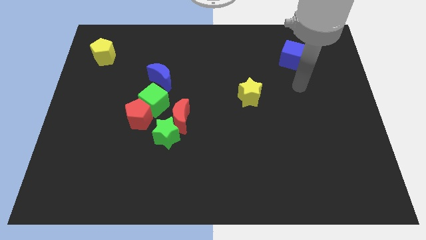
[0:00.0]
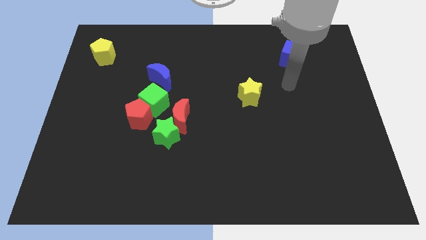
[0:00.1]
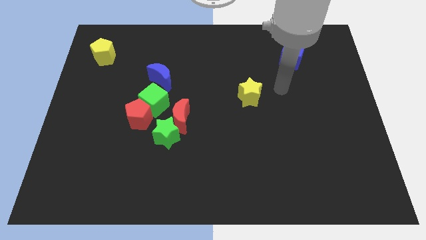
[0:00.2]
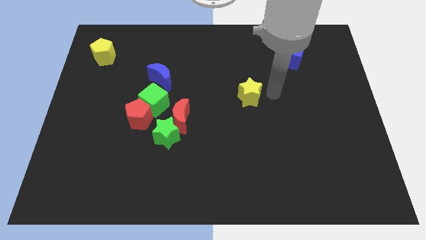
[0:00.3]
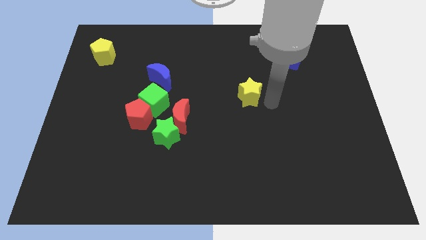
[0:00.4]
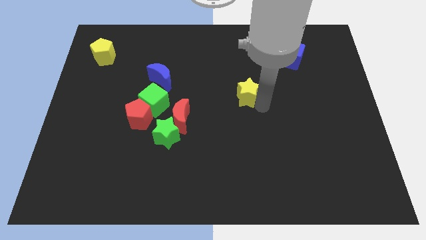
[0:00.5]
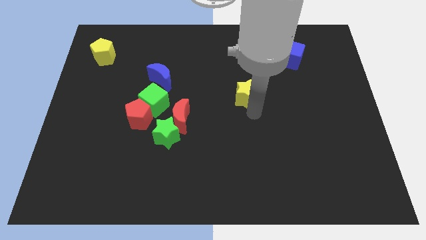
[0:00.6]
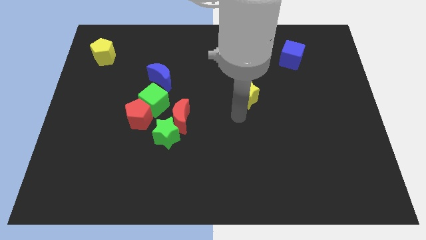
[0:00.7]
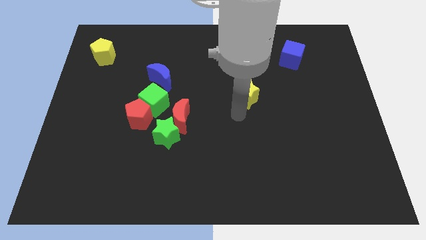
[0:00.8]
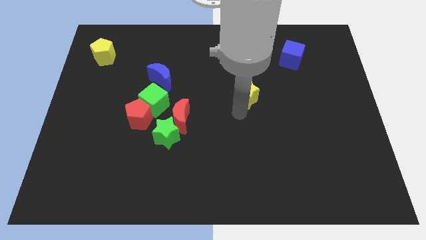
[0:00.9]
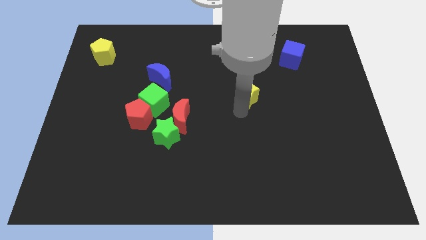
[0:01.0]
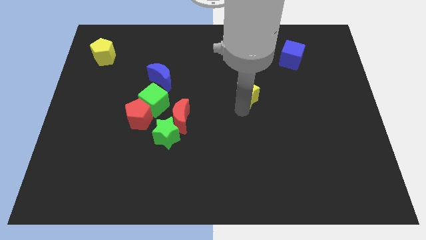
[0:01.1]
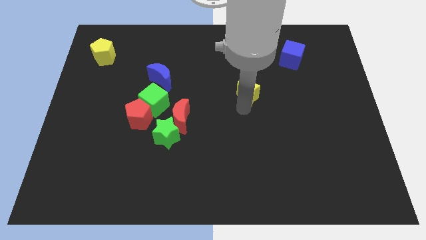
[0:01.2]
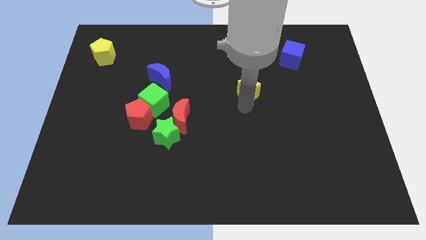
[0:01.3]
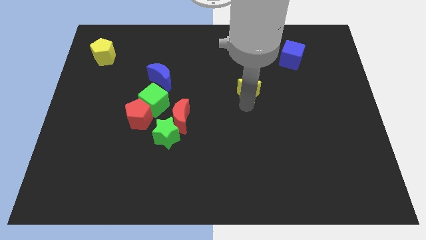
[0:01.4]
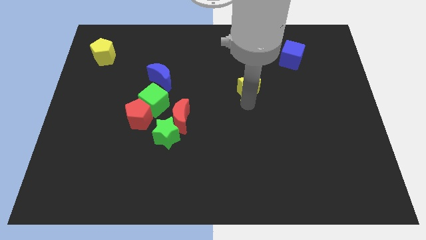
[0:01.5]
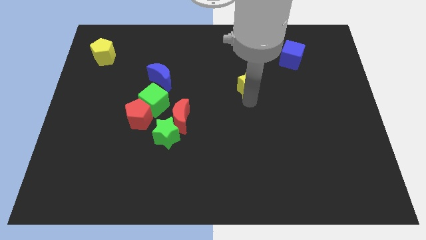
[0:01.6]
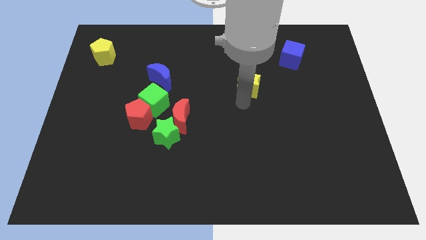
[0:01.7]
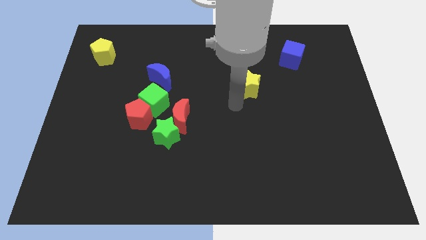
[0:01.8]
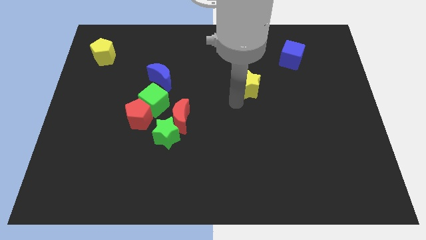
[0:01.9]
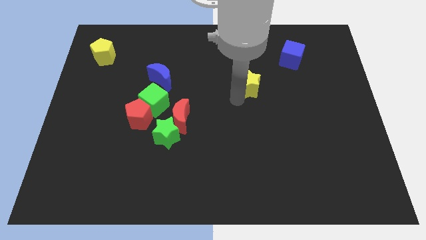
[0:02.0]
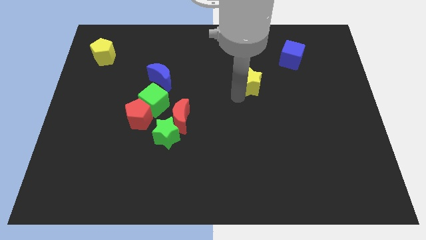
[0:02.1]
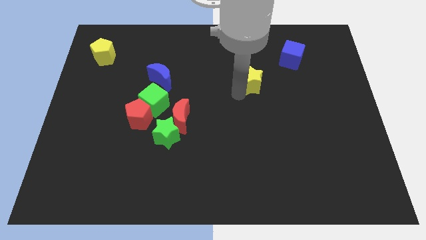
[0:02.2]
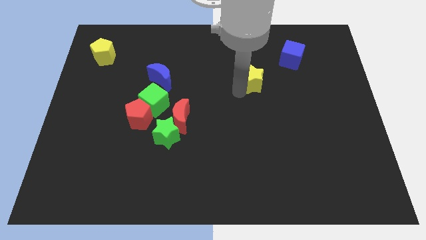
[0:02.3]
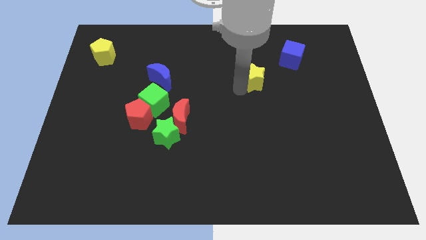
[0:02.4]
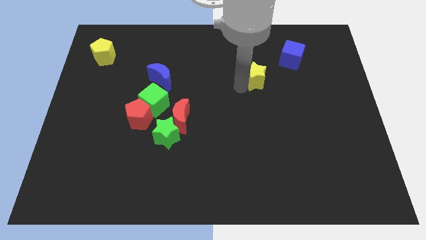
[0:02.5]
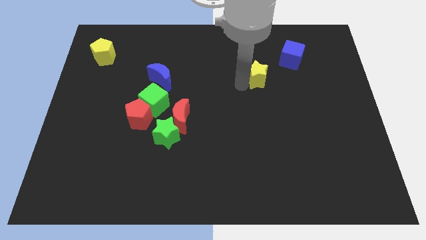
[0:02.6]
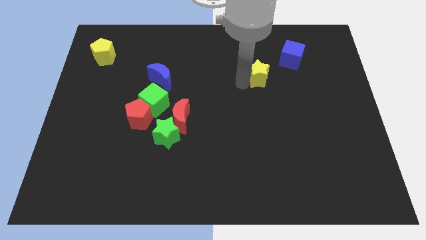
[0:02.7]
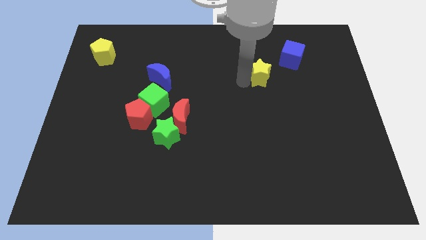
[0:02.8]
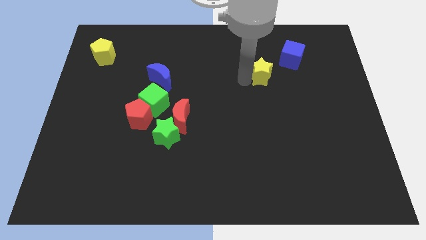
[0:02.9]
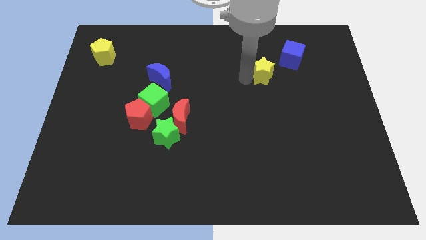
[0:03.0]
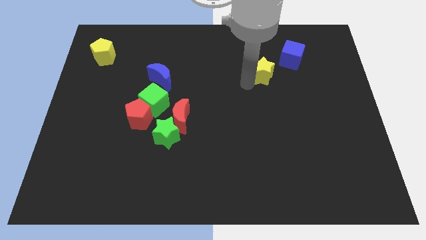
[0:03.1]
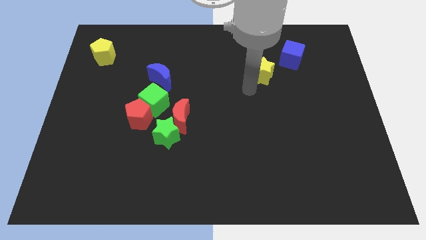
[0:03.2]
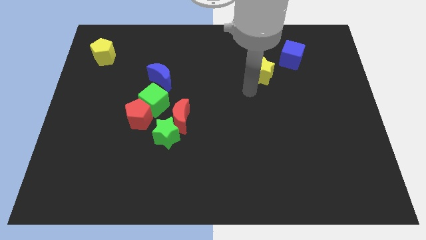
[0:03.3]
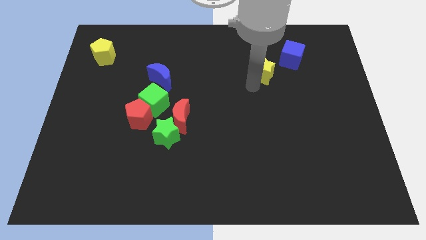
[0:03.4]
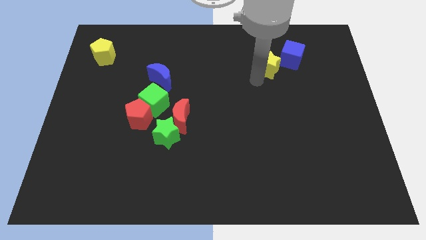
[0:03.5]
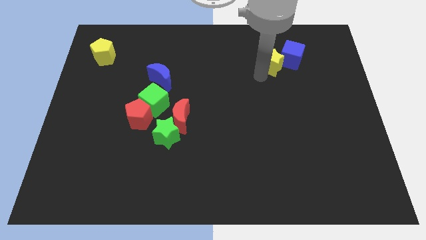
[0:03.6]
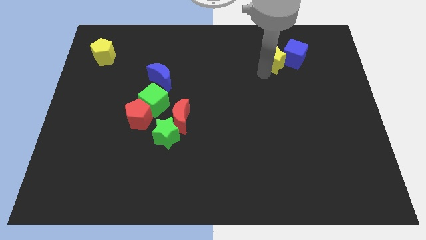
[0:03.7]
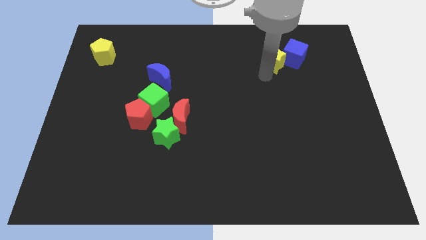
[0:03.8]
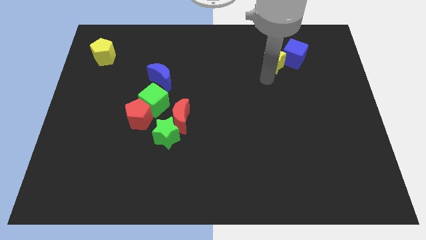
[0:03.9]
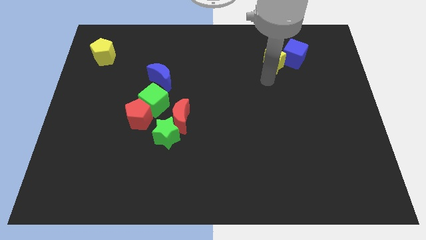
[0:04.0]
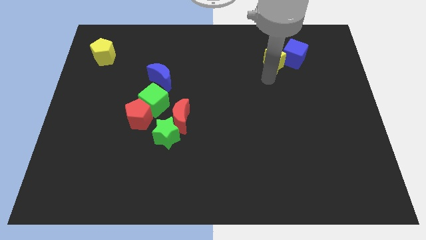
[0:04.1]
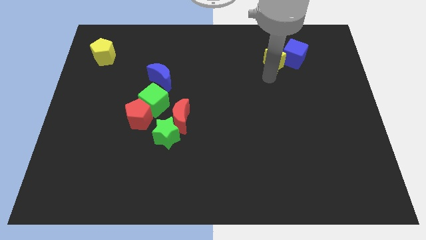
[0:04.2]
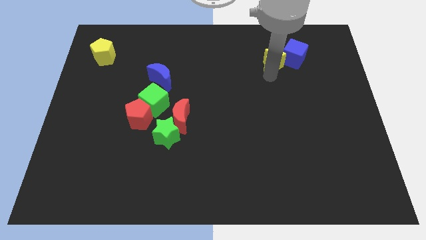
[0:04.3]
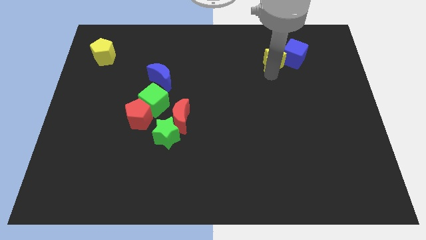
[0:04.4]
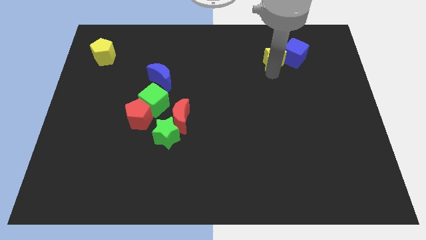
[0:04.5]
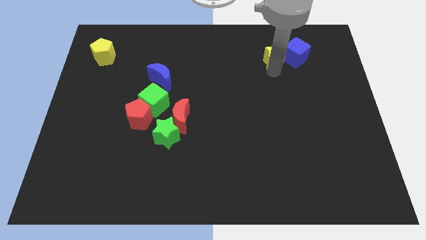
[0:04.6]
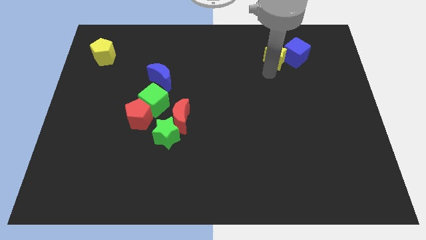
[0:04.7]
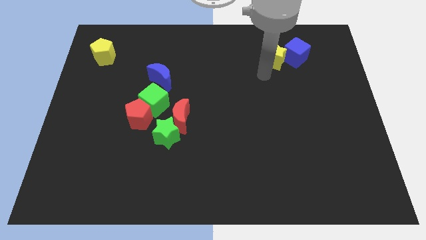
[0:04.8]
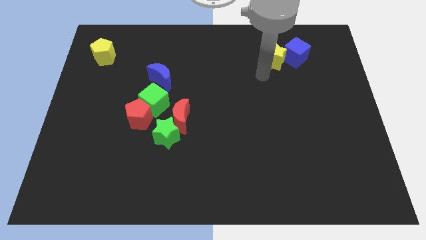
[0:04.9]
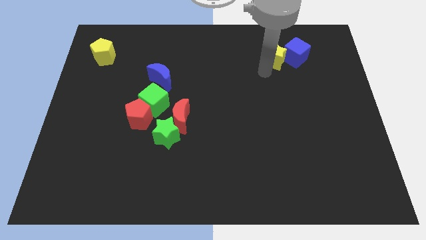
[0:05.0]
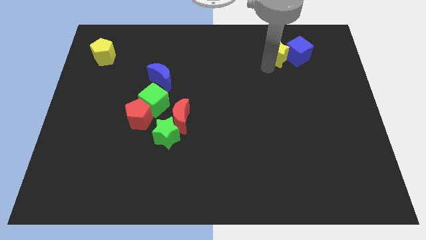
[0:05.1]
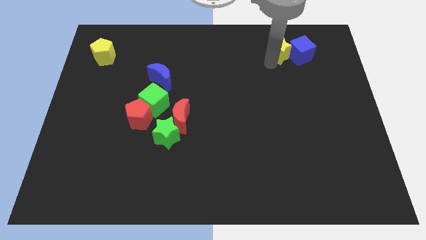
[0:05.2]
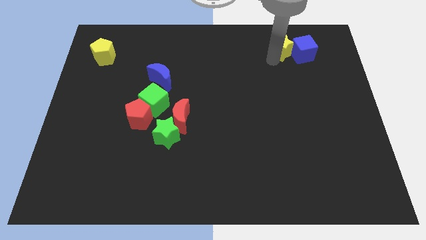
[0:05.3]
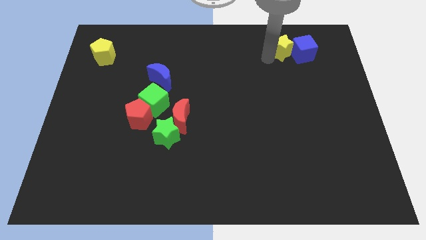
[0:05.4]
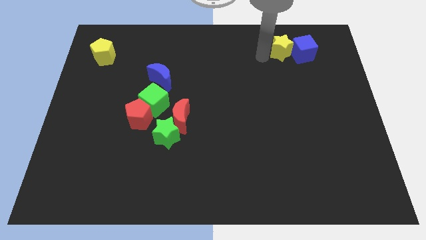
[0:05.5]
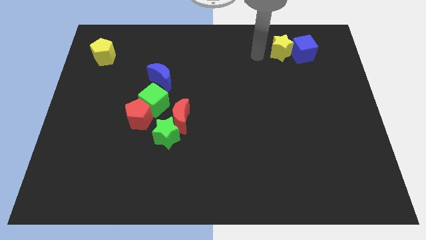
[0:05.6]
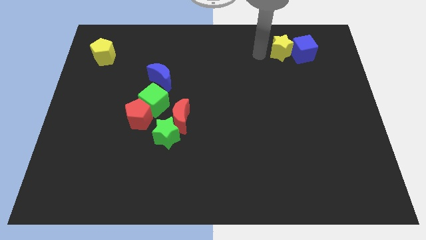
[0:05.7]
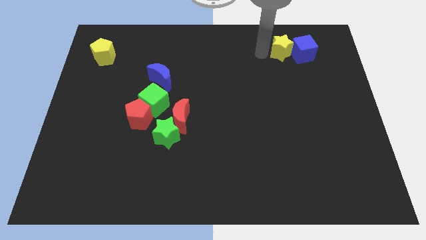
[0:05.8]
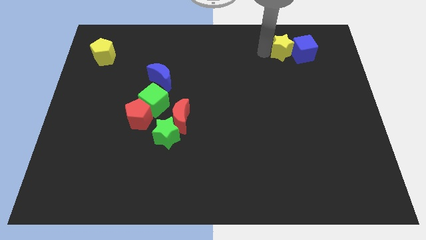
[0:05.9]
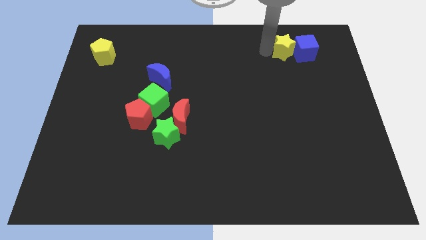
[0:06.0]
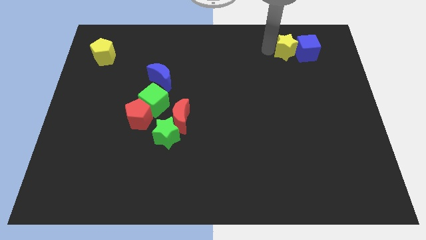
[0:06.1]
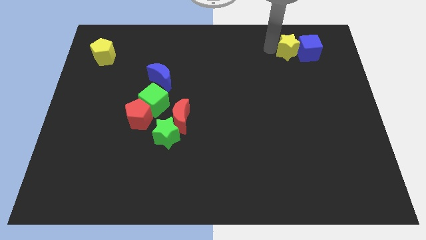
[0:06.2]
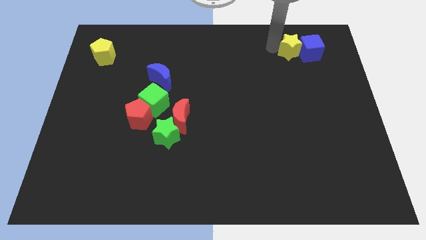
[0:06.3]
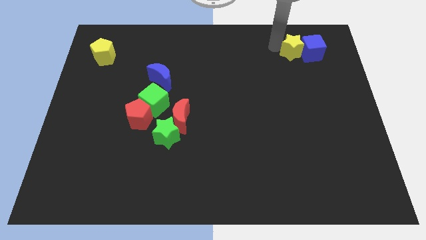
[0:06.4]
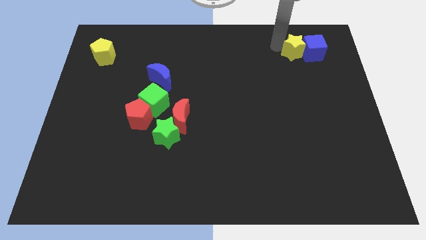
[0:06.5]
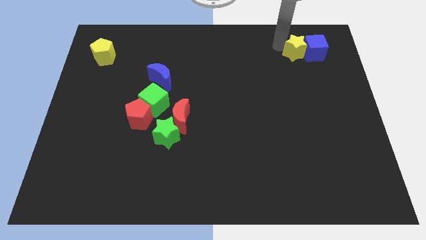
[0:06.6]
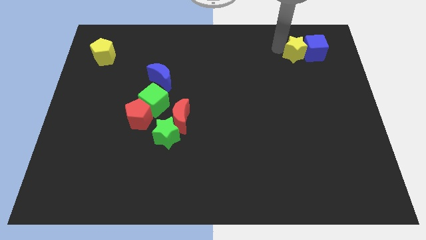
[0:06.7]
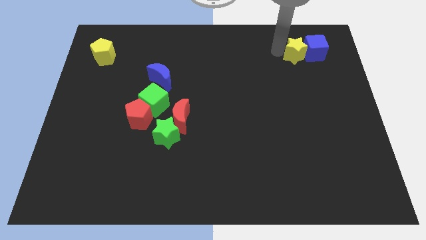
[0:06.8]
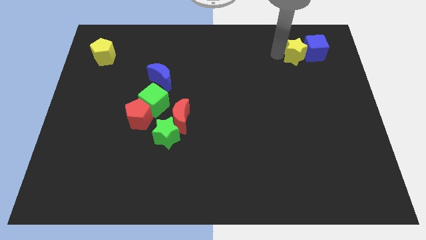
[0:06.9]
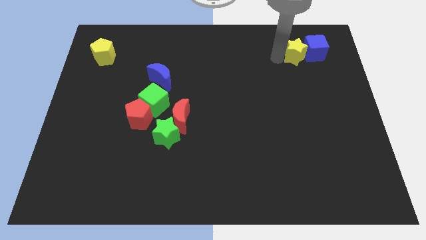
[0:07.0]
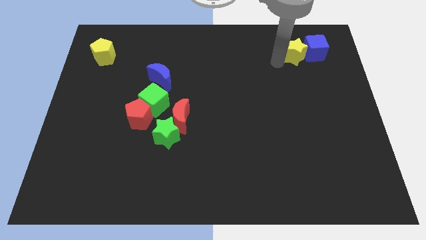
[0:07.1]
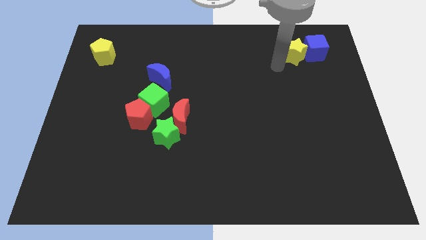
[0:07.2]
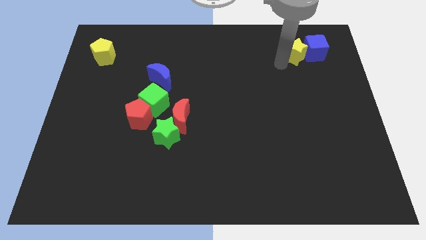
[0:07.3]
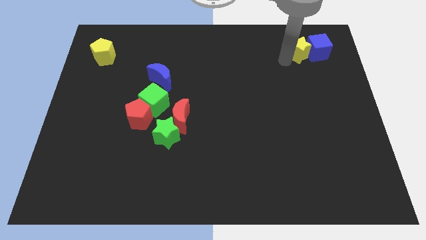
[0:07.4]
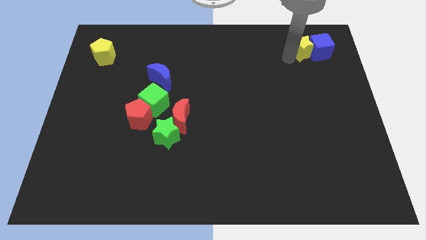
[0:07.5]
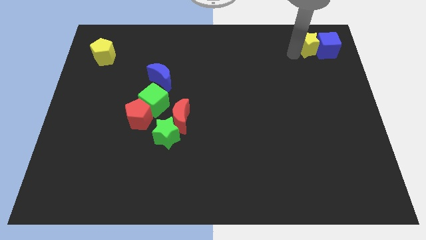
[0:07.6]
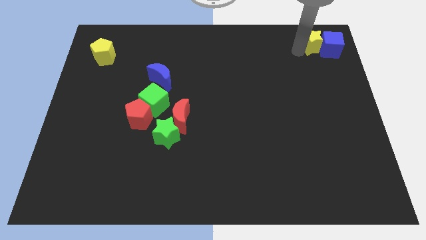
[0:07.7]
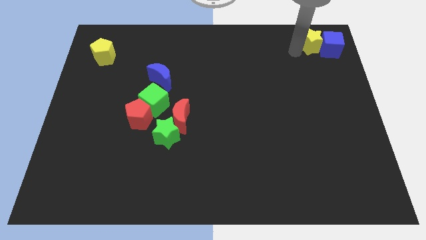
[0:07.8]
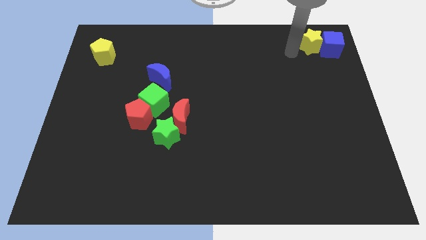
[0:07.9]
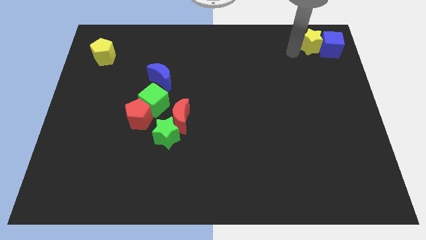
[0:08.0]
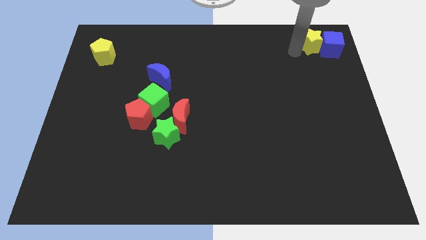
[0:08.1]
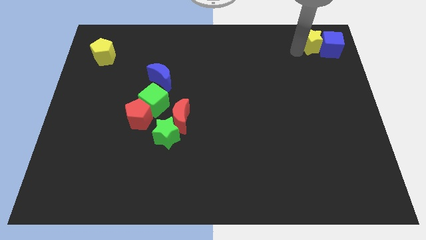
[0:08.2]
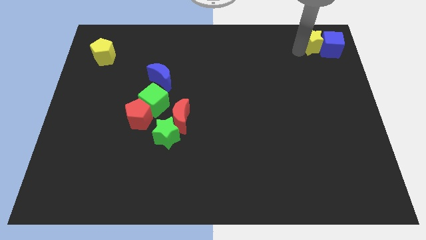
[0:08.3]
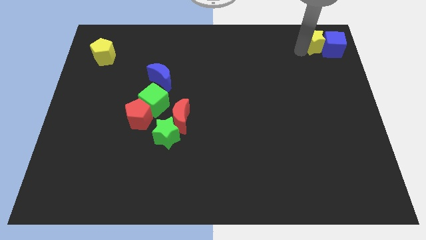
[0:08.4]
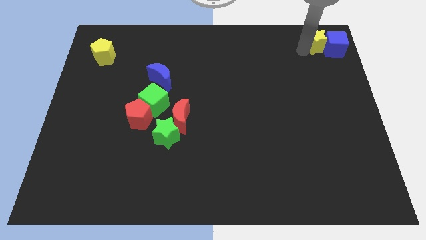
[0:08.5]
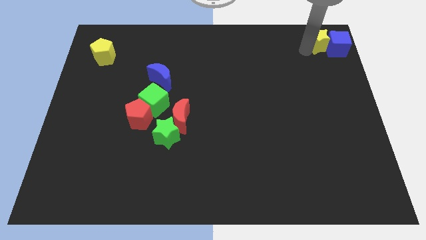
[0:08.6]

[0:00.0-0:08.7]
push the yellow star to the upper right corner
